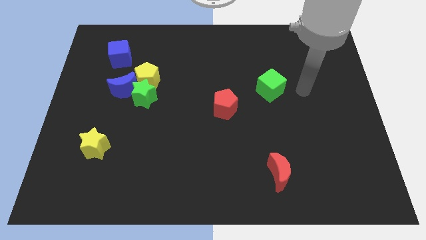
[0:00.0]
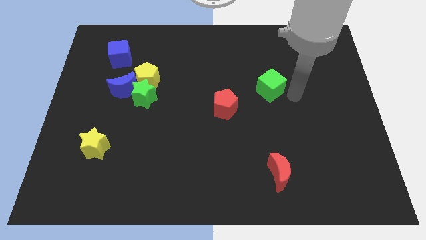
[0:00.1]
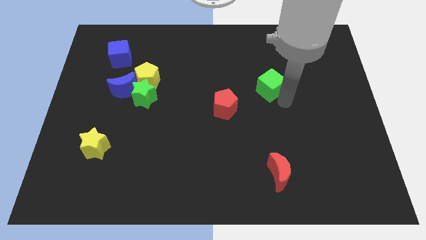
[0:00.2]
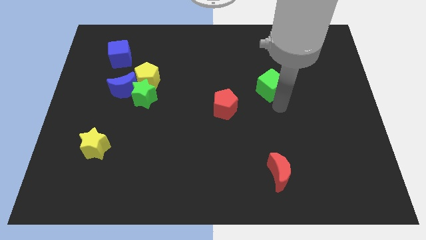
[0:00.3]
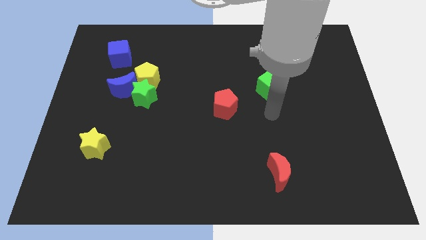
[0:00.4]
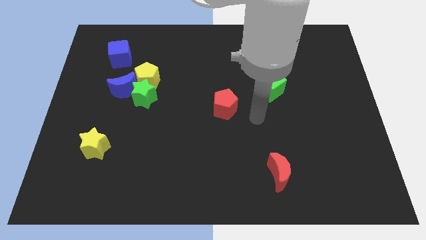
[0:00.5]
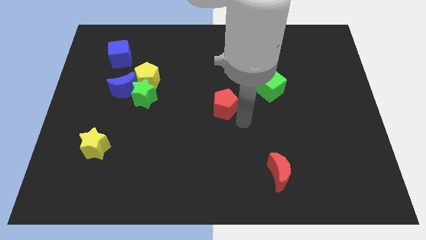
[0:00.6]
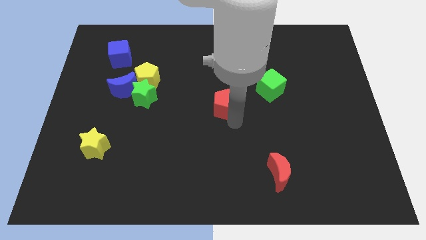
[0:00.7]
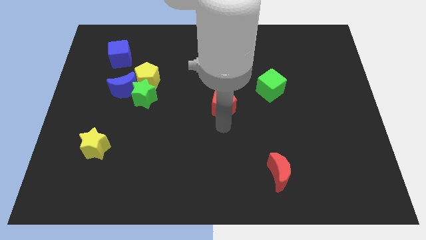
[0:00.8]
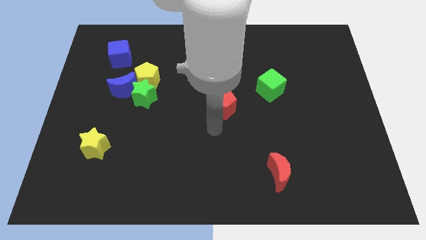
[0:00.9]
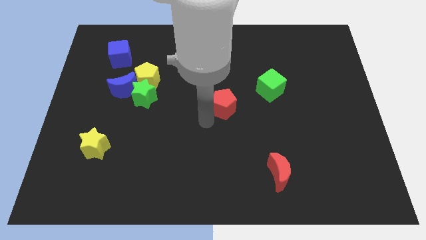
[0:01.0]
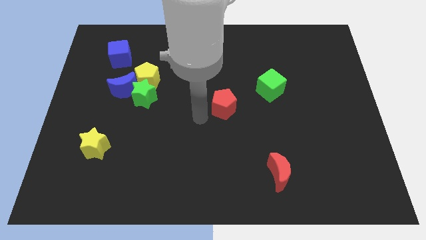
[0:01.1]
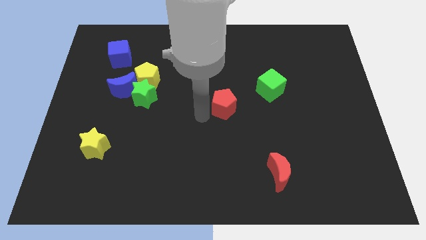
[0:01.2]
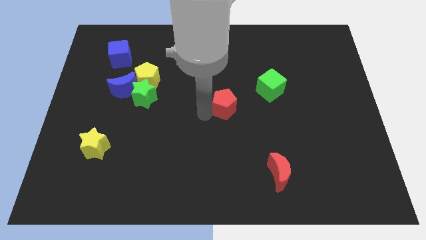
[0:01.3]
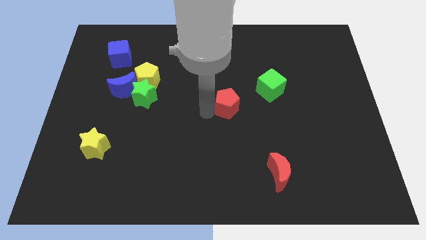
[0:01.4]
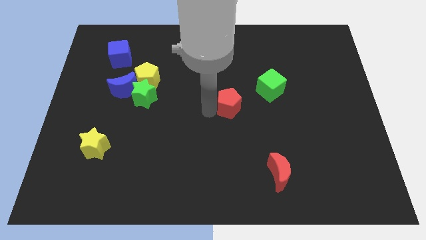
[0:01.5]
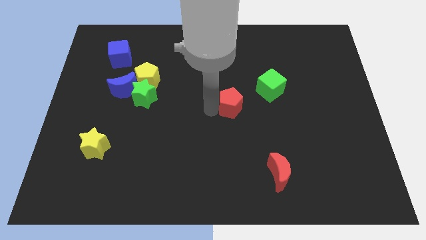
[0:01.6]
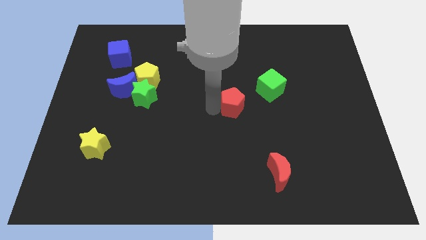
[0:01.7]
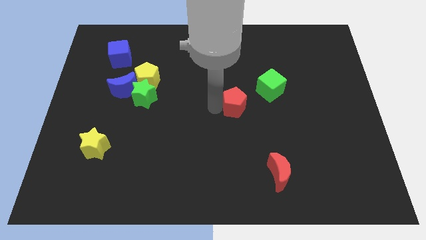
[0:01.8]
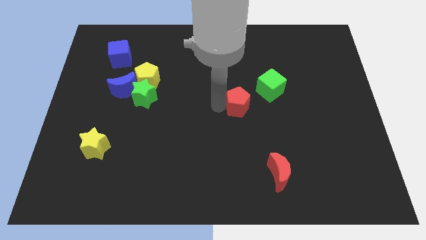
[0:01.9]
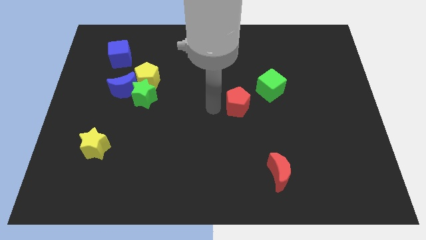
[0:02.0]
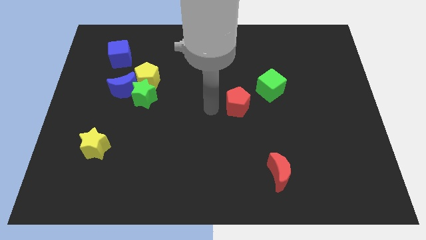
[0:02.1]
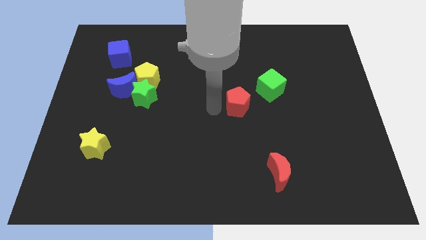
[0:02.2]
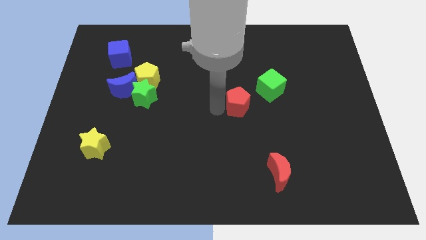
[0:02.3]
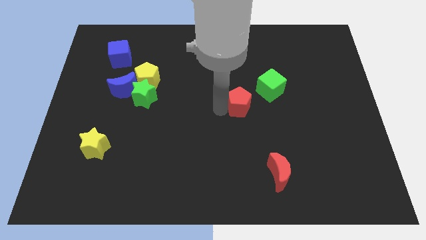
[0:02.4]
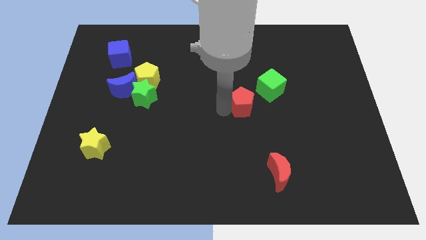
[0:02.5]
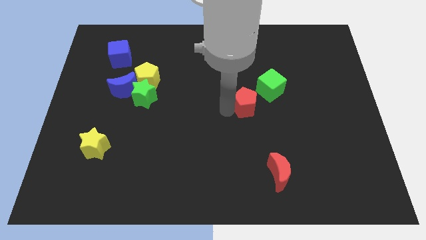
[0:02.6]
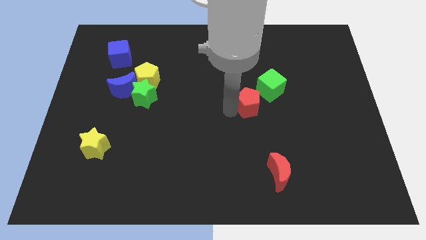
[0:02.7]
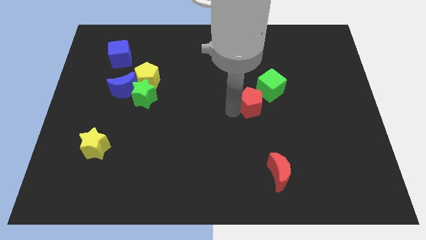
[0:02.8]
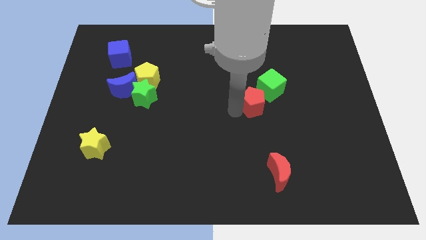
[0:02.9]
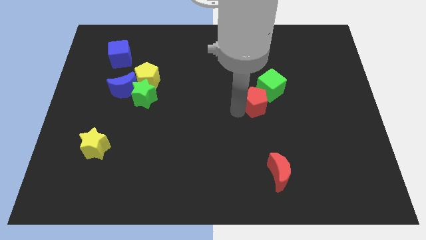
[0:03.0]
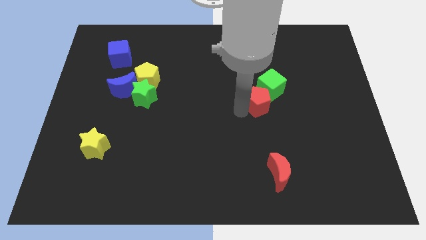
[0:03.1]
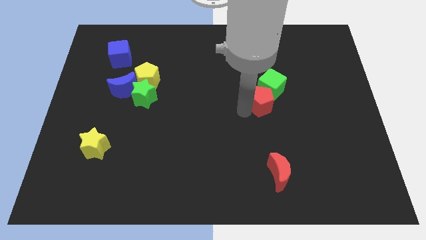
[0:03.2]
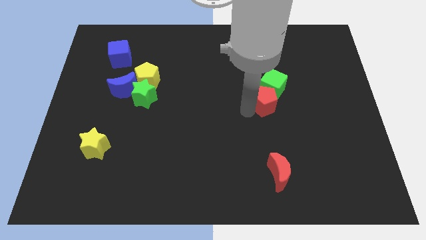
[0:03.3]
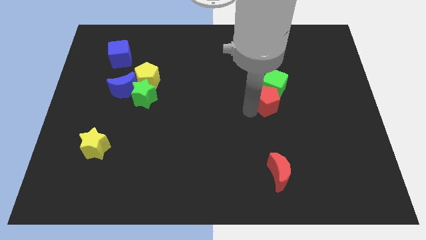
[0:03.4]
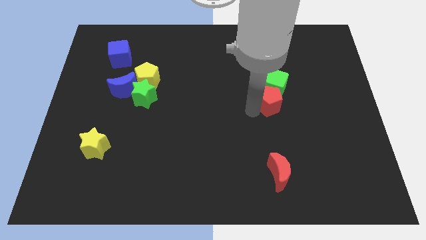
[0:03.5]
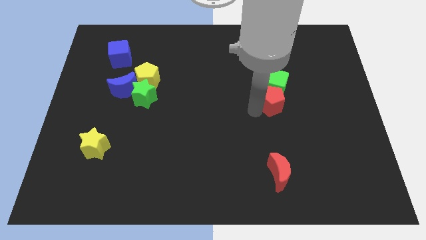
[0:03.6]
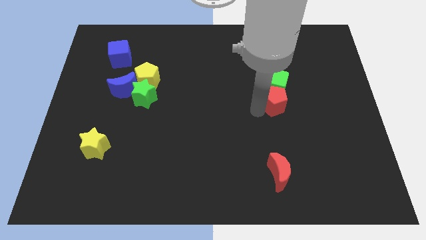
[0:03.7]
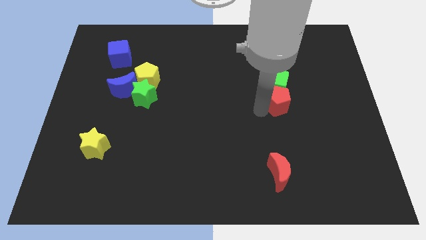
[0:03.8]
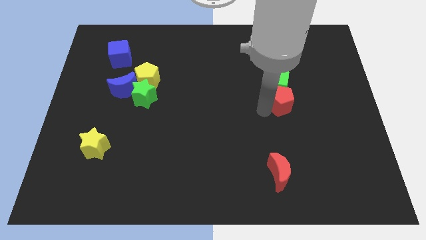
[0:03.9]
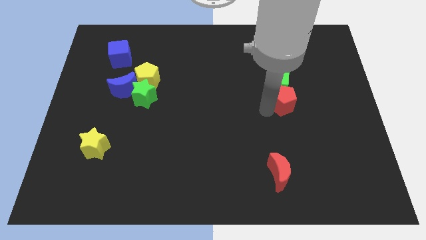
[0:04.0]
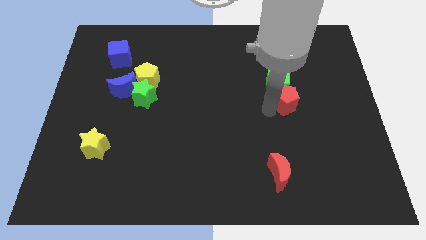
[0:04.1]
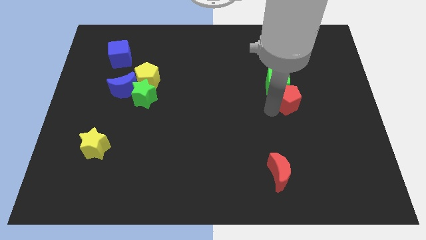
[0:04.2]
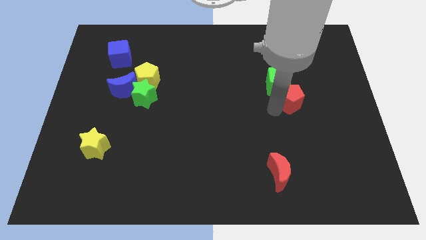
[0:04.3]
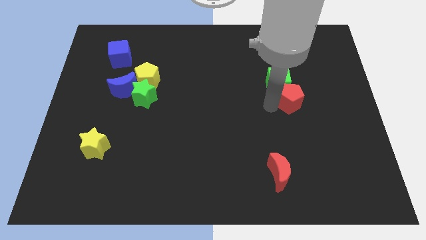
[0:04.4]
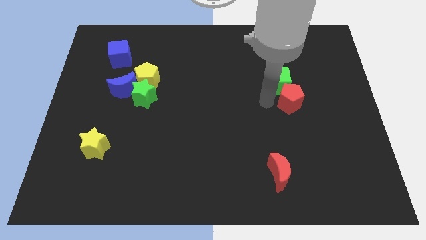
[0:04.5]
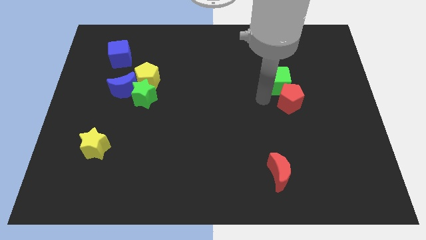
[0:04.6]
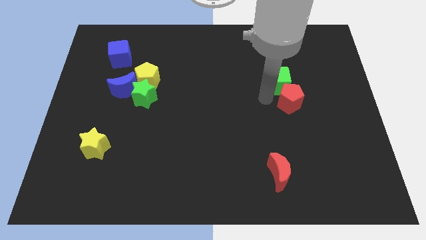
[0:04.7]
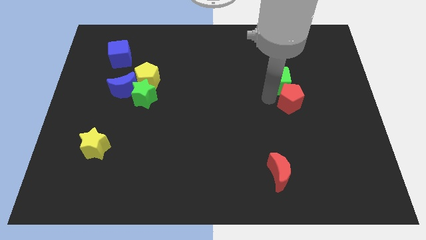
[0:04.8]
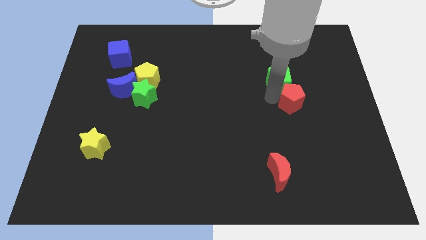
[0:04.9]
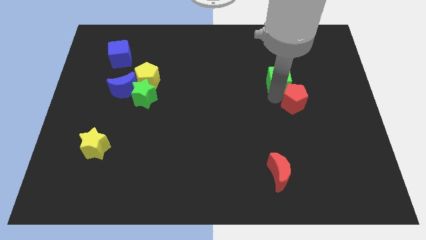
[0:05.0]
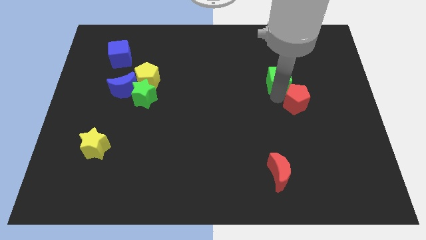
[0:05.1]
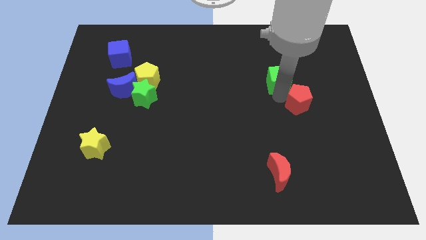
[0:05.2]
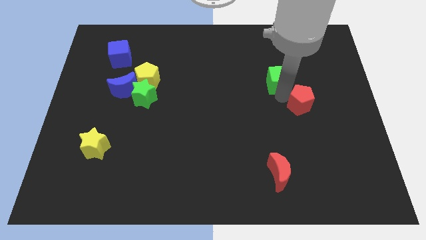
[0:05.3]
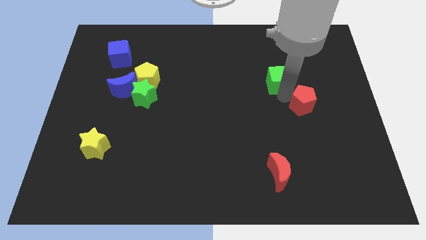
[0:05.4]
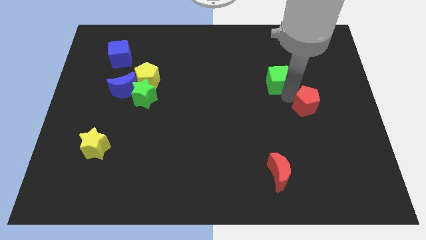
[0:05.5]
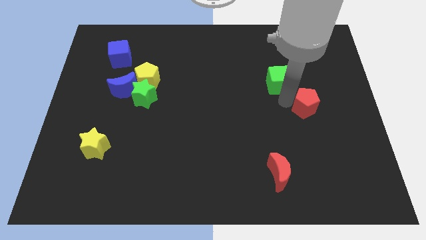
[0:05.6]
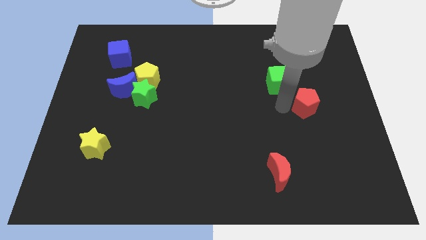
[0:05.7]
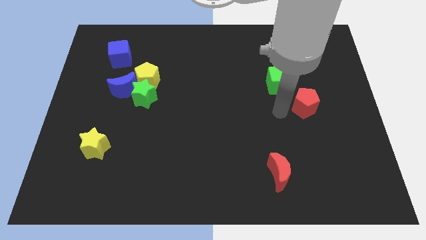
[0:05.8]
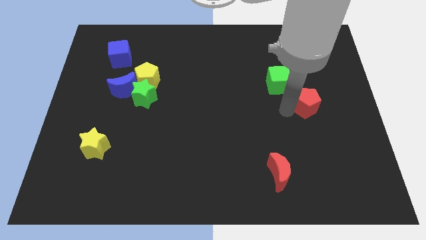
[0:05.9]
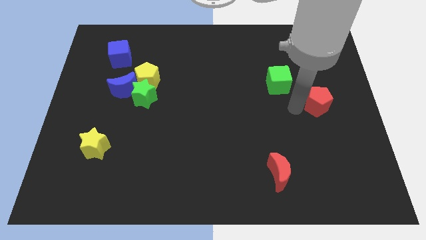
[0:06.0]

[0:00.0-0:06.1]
put the red pentagon to the right side
